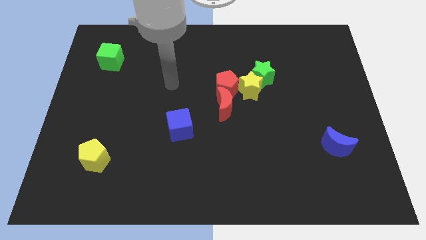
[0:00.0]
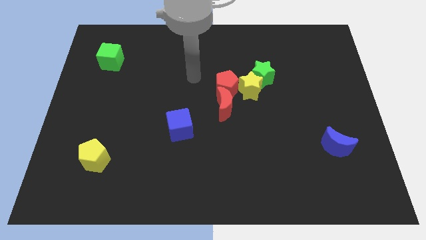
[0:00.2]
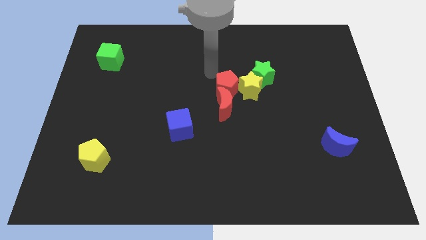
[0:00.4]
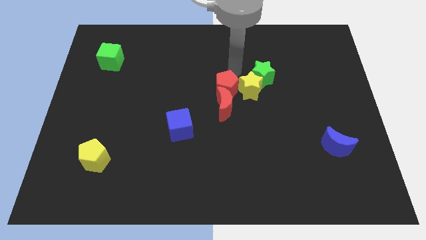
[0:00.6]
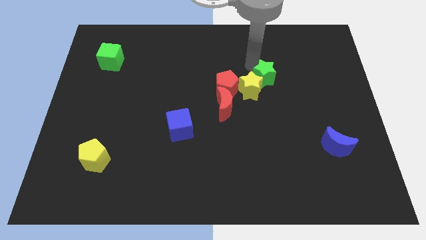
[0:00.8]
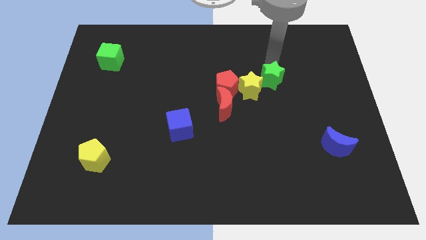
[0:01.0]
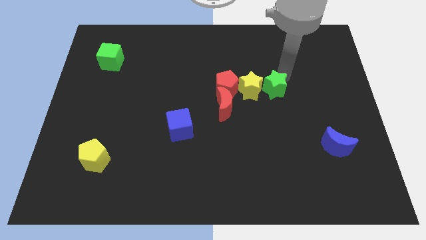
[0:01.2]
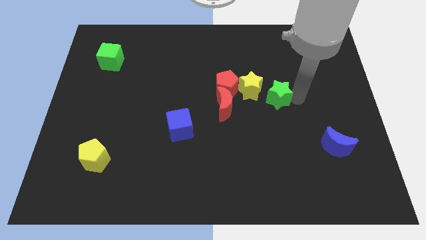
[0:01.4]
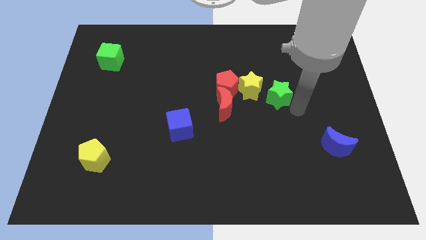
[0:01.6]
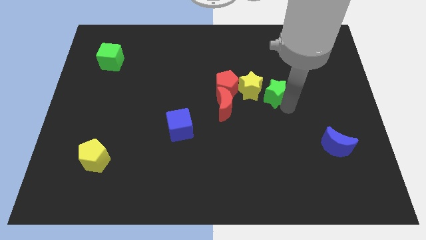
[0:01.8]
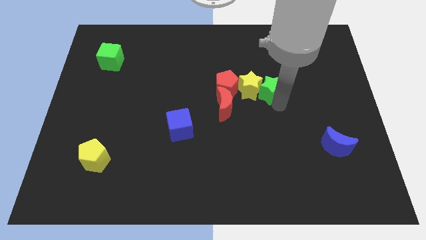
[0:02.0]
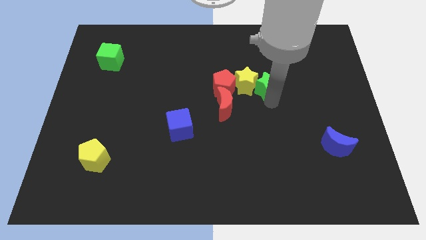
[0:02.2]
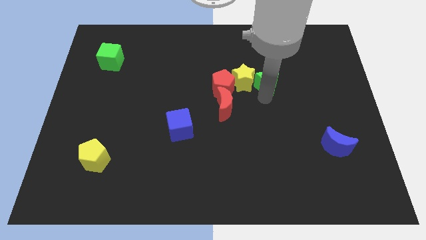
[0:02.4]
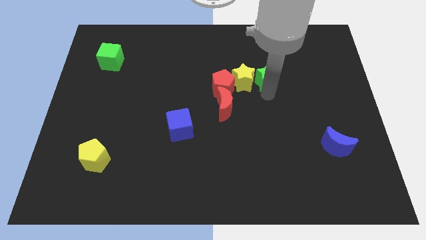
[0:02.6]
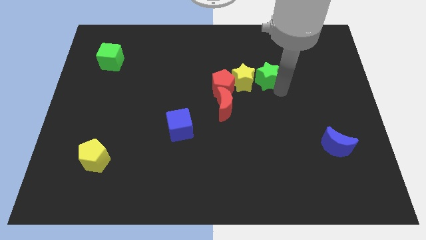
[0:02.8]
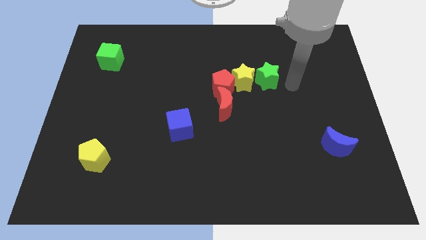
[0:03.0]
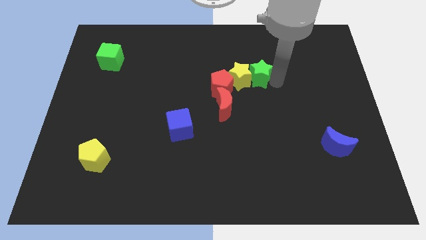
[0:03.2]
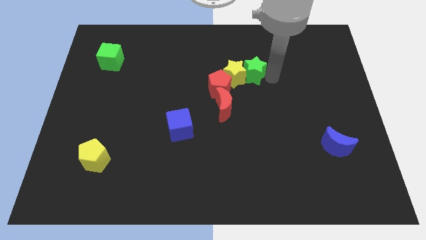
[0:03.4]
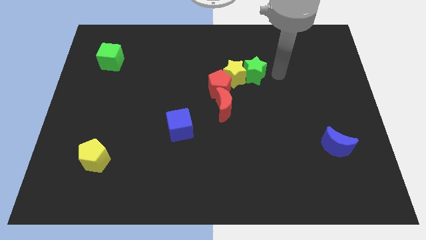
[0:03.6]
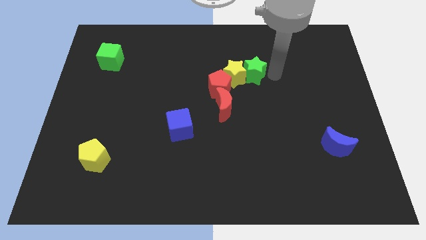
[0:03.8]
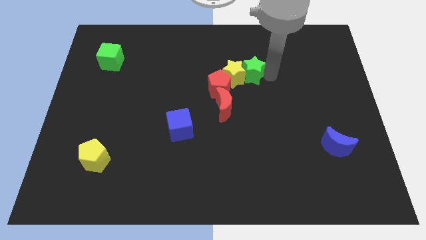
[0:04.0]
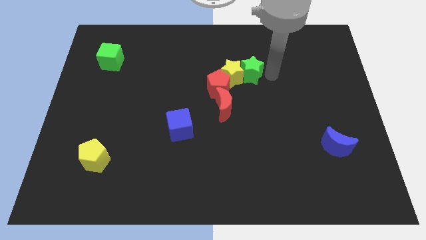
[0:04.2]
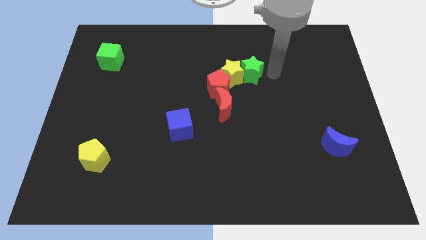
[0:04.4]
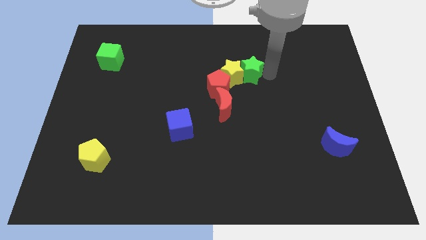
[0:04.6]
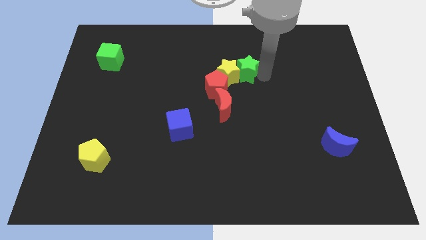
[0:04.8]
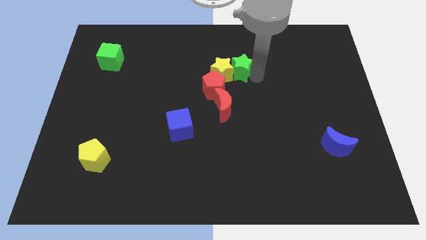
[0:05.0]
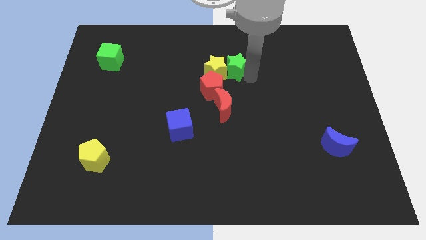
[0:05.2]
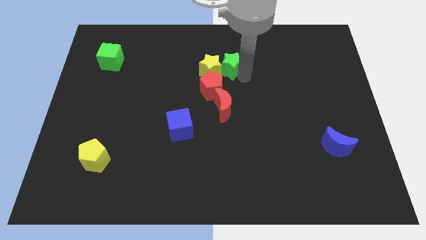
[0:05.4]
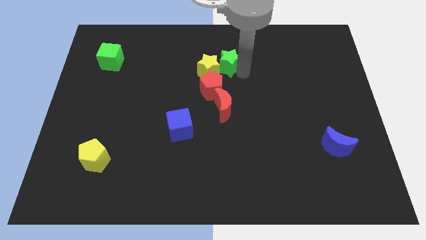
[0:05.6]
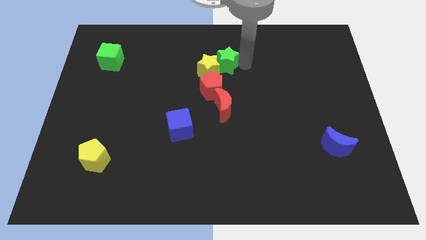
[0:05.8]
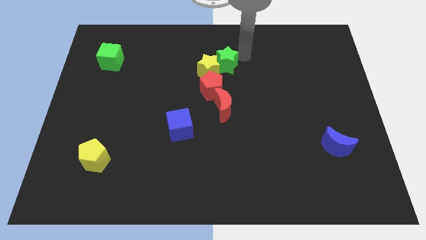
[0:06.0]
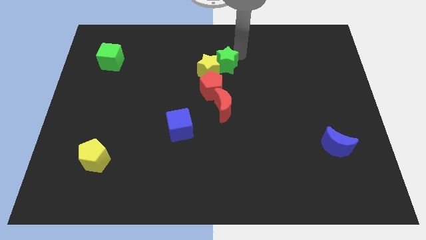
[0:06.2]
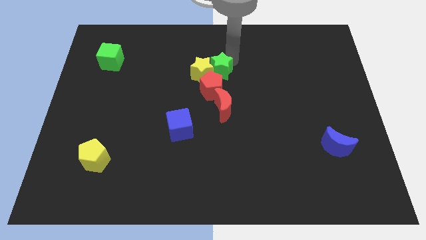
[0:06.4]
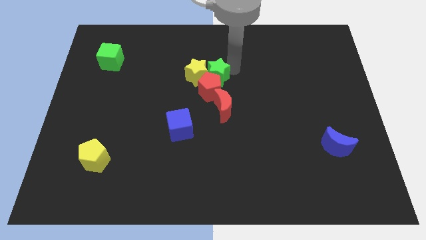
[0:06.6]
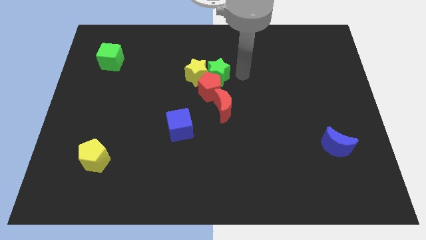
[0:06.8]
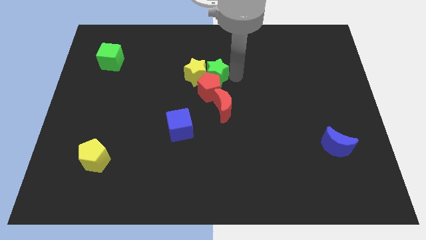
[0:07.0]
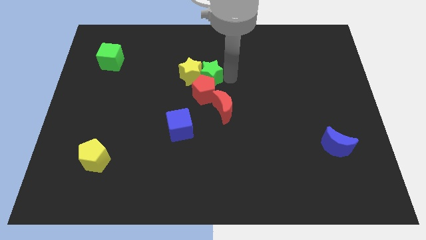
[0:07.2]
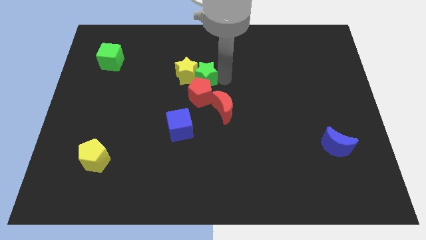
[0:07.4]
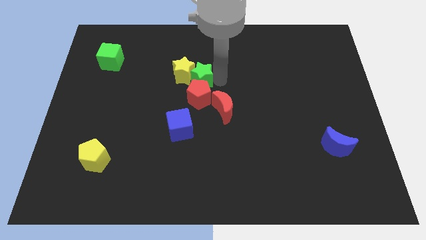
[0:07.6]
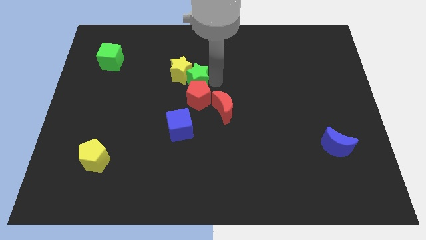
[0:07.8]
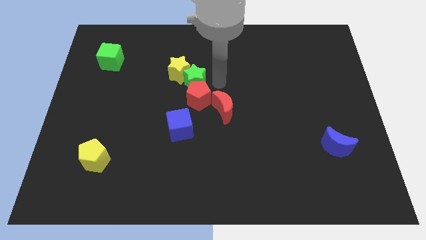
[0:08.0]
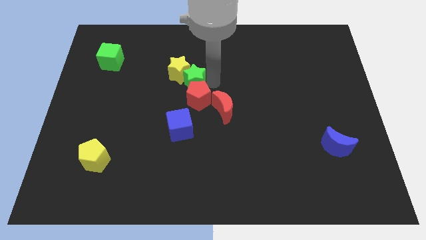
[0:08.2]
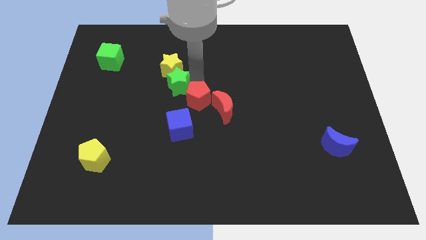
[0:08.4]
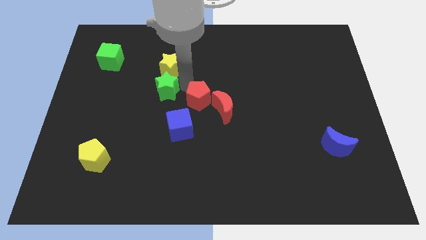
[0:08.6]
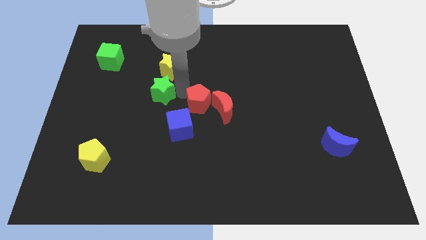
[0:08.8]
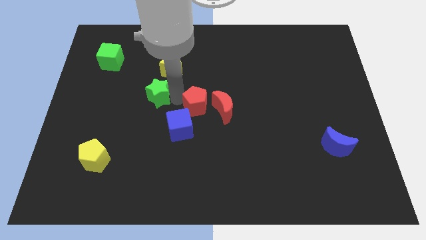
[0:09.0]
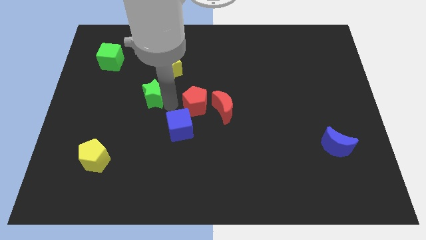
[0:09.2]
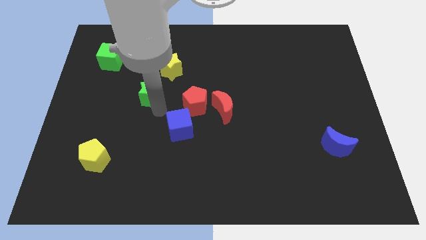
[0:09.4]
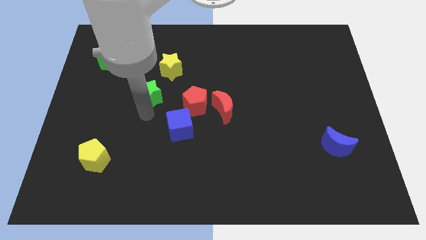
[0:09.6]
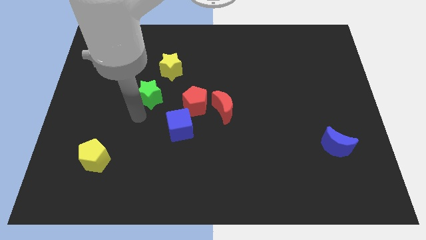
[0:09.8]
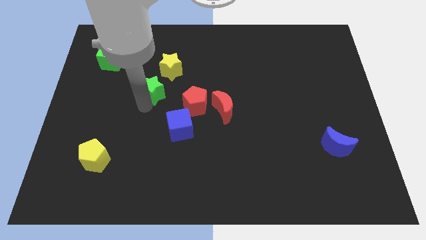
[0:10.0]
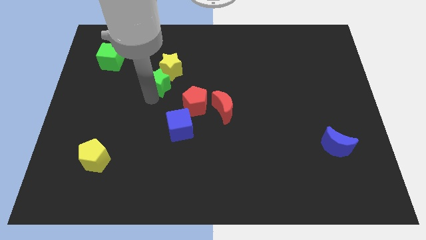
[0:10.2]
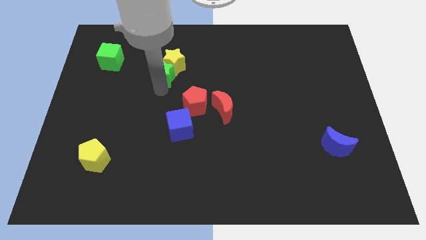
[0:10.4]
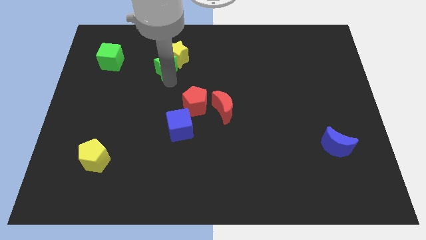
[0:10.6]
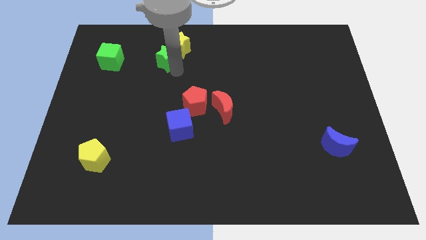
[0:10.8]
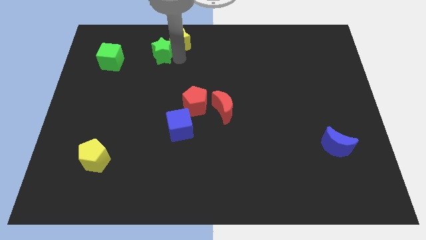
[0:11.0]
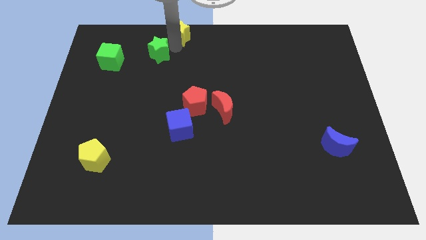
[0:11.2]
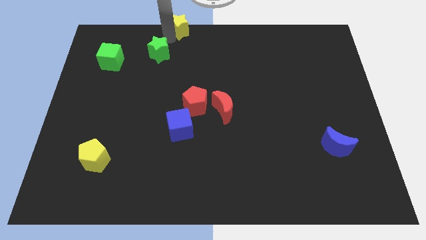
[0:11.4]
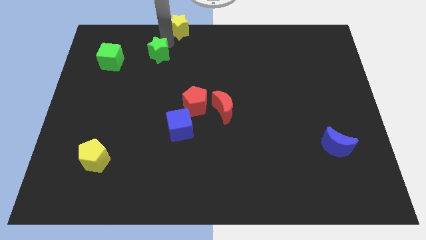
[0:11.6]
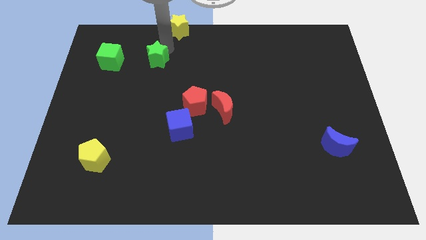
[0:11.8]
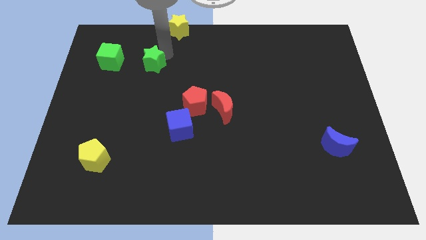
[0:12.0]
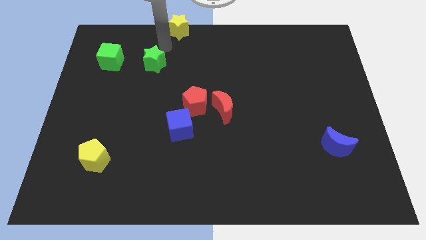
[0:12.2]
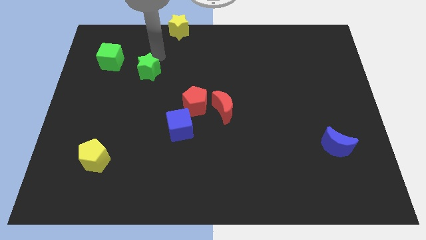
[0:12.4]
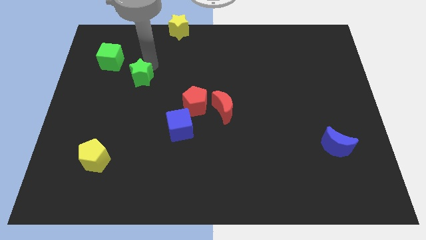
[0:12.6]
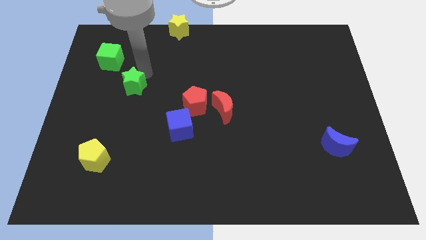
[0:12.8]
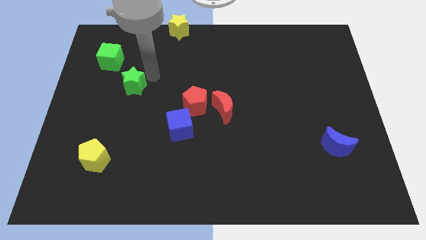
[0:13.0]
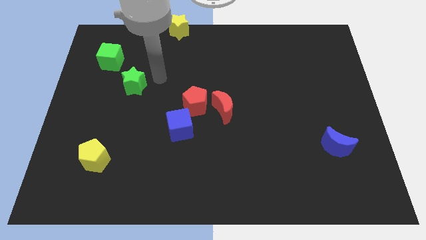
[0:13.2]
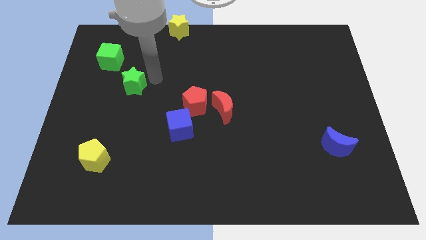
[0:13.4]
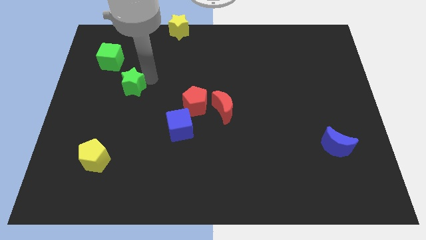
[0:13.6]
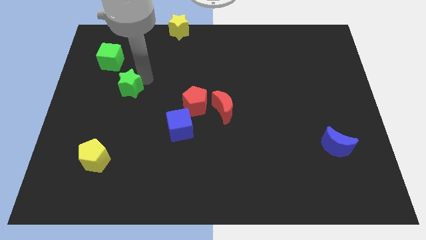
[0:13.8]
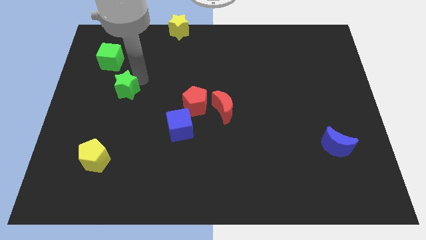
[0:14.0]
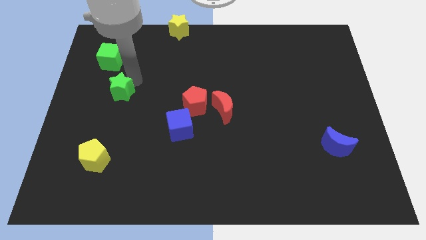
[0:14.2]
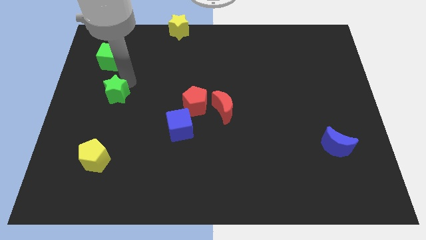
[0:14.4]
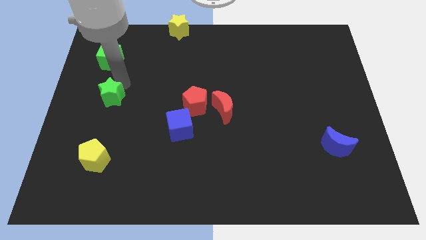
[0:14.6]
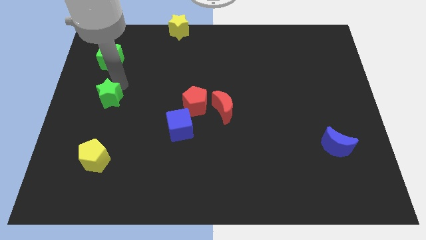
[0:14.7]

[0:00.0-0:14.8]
slide the green star to the left side
